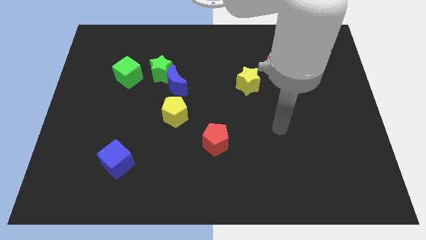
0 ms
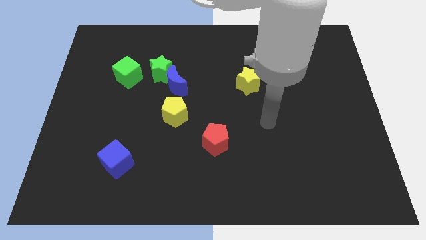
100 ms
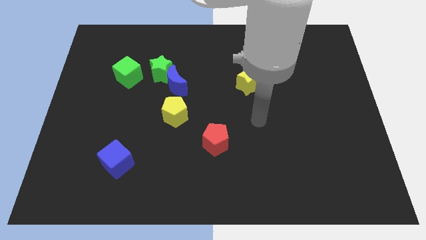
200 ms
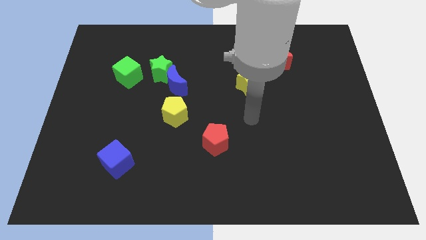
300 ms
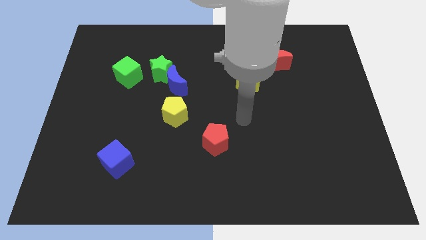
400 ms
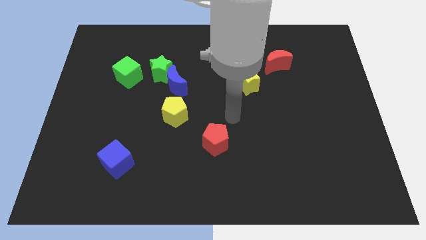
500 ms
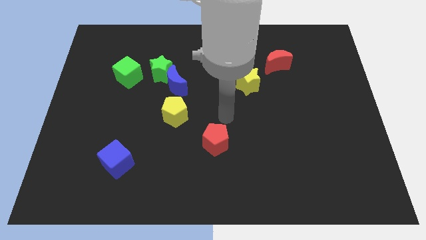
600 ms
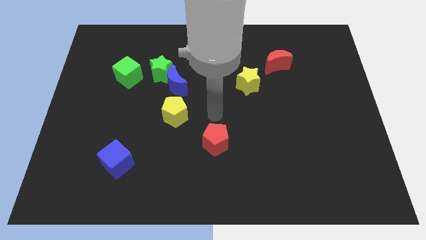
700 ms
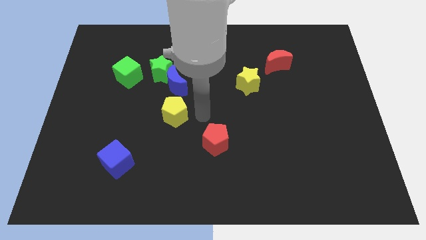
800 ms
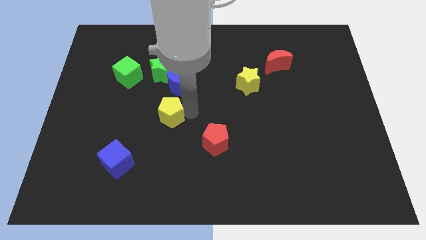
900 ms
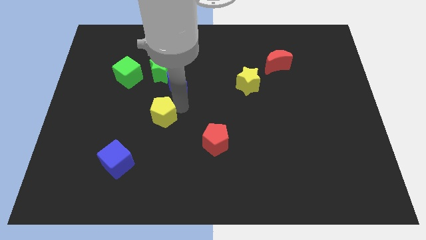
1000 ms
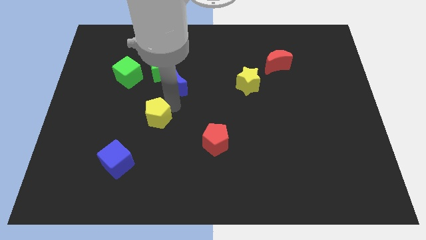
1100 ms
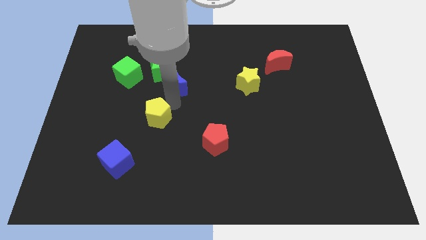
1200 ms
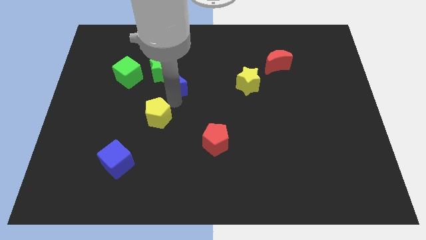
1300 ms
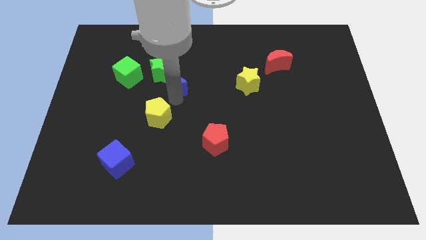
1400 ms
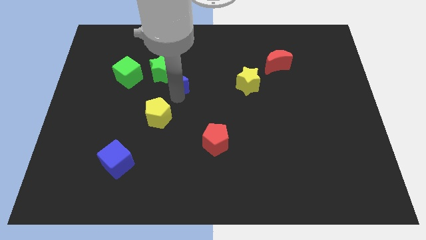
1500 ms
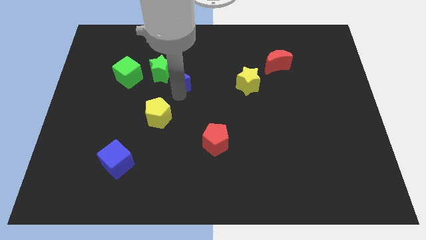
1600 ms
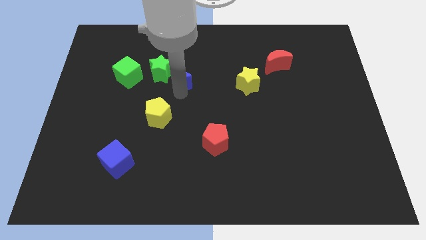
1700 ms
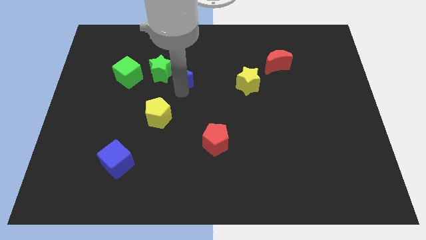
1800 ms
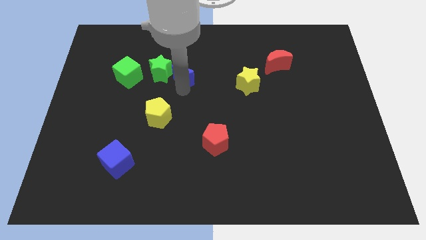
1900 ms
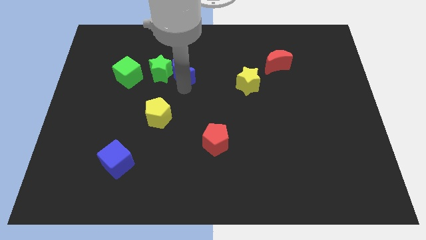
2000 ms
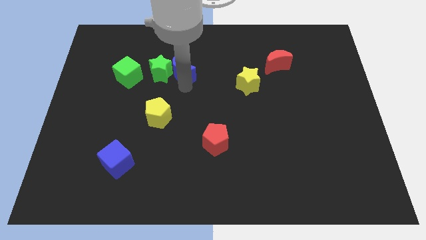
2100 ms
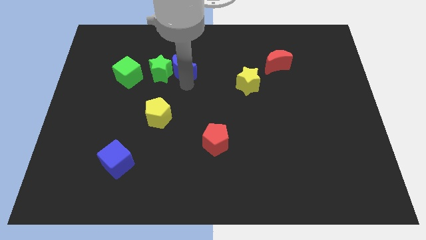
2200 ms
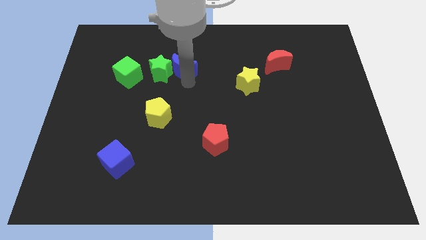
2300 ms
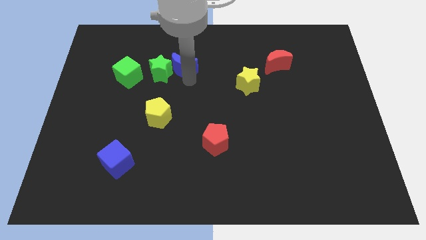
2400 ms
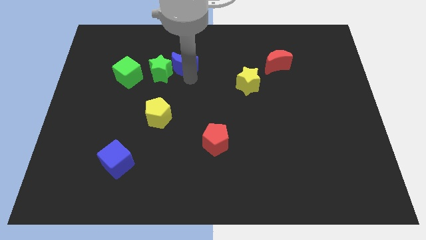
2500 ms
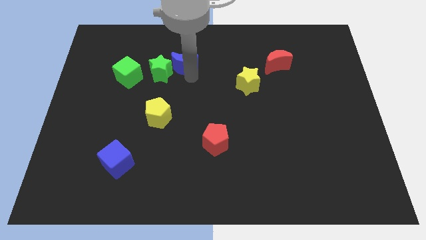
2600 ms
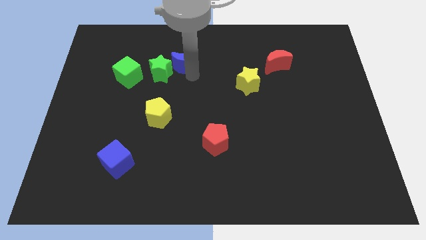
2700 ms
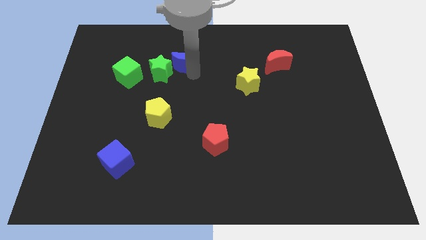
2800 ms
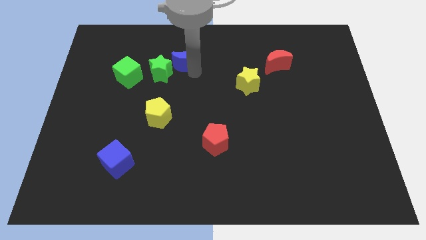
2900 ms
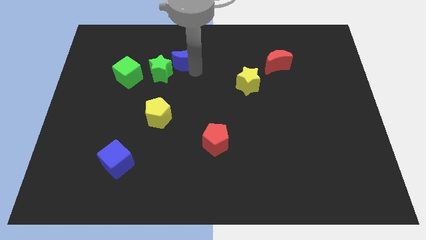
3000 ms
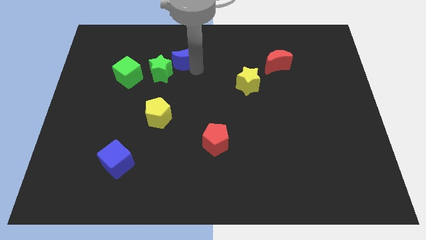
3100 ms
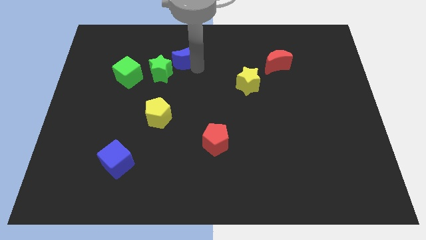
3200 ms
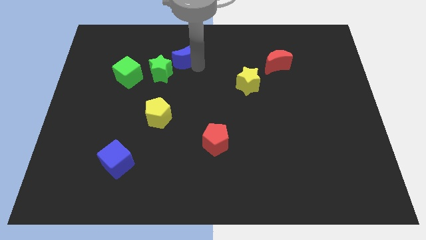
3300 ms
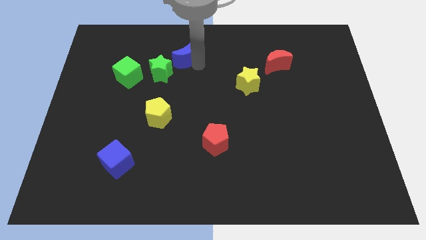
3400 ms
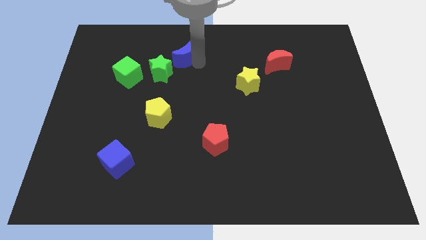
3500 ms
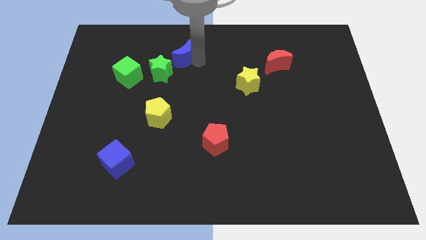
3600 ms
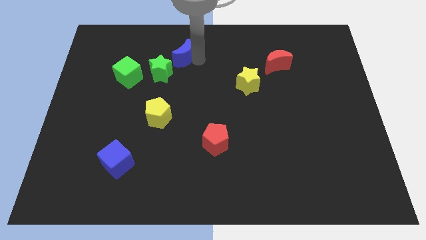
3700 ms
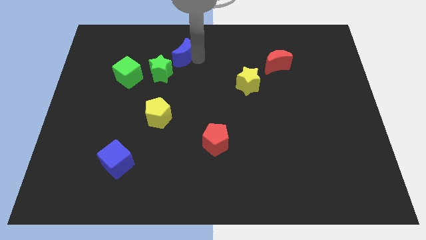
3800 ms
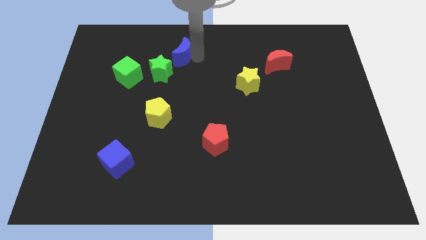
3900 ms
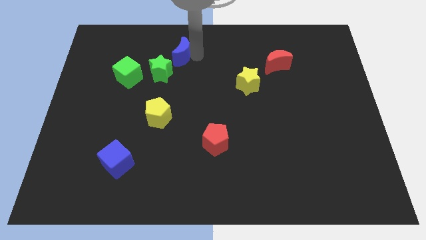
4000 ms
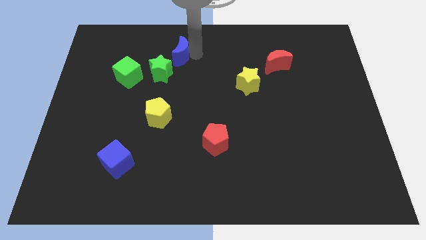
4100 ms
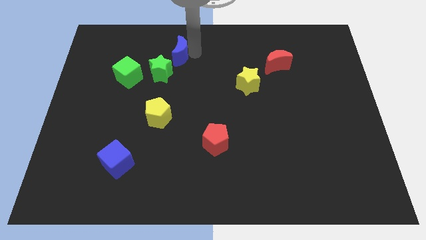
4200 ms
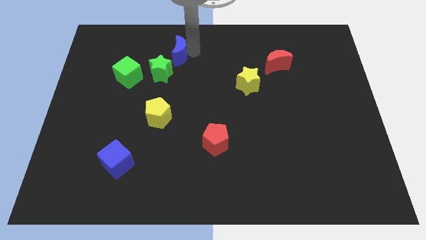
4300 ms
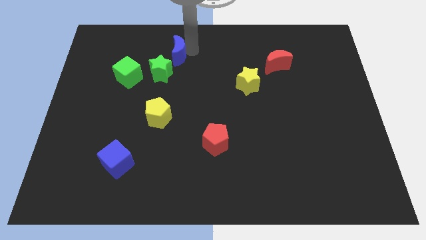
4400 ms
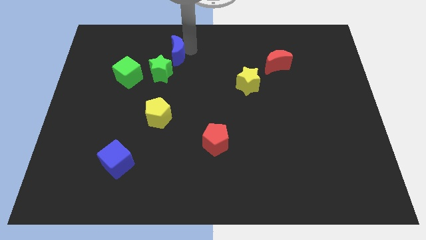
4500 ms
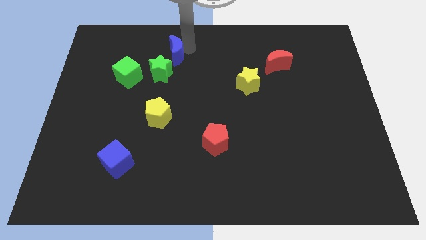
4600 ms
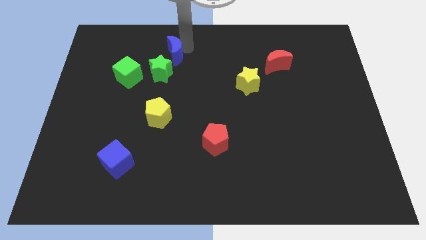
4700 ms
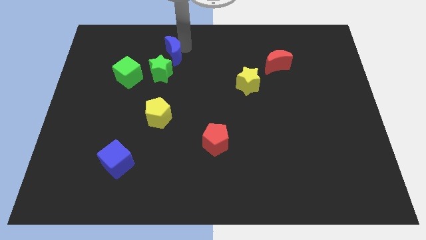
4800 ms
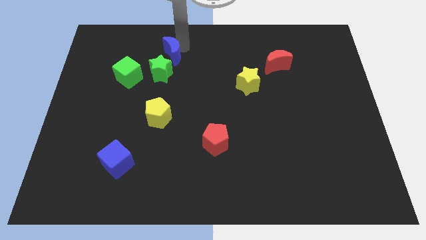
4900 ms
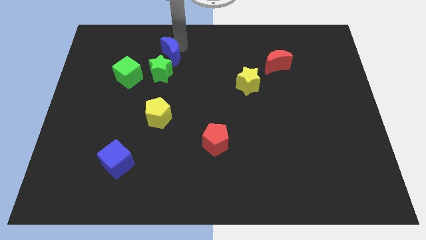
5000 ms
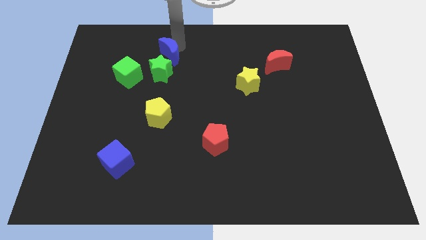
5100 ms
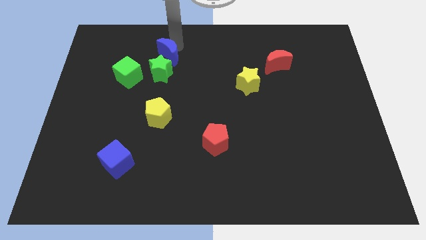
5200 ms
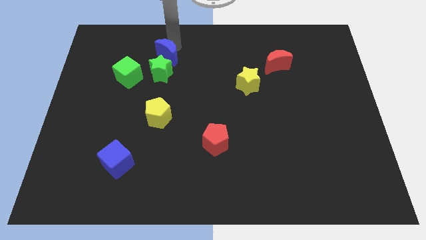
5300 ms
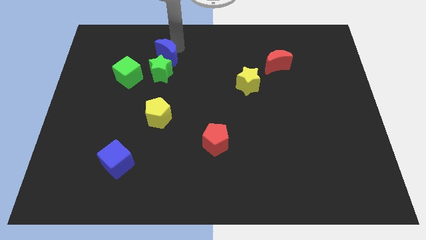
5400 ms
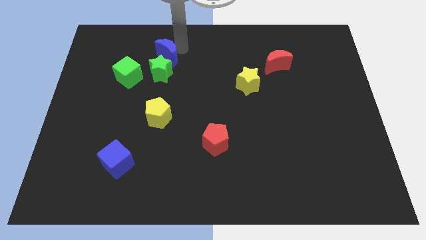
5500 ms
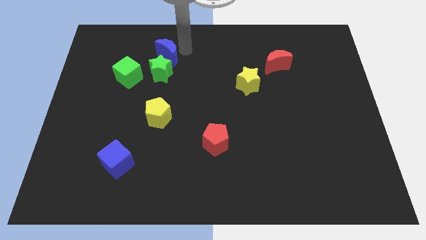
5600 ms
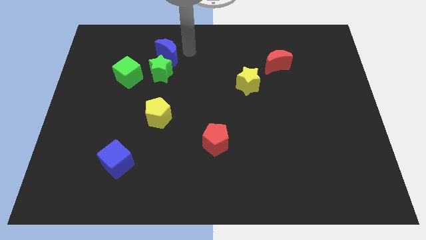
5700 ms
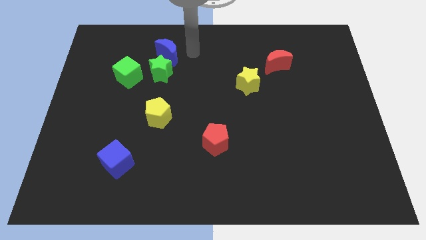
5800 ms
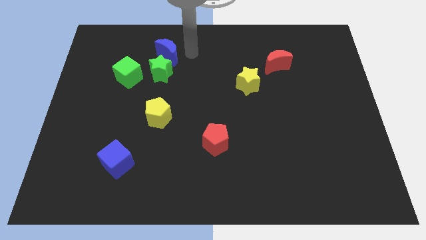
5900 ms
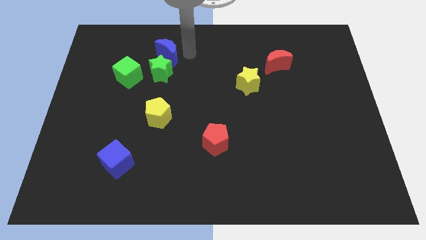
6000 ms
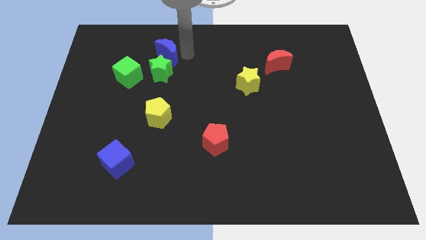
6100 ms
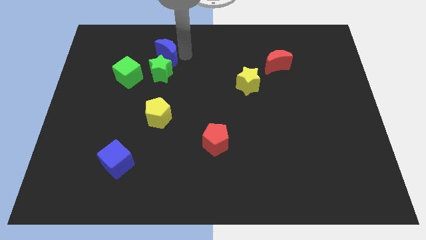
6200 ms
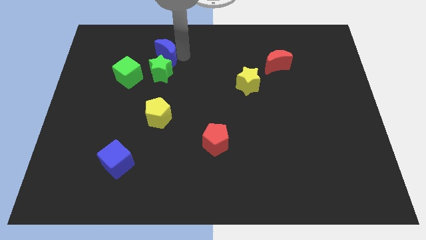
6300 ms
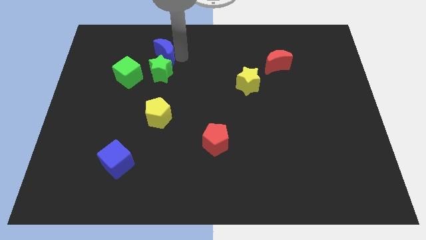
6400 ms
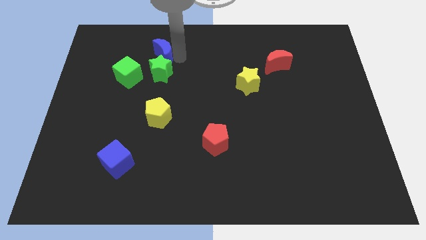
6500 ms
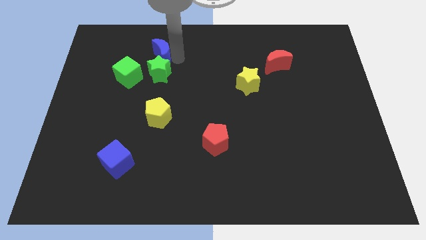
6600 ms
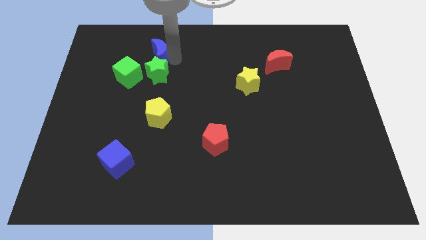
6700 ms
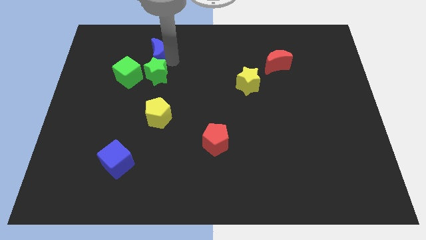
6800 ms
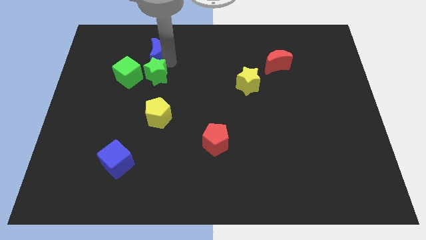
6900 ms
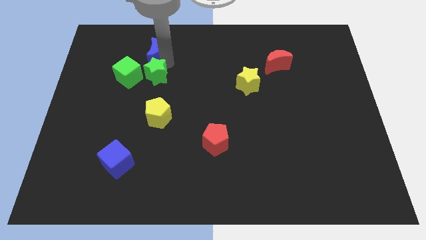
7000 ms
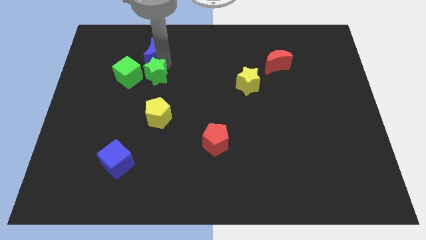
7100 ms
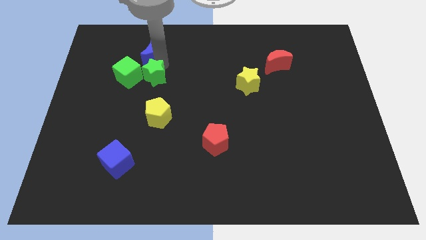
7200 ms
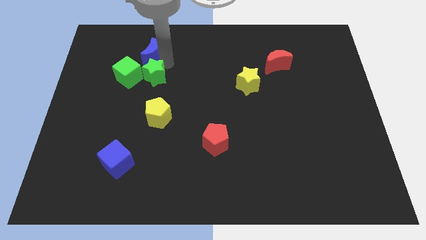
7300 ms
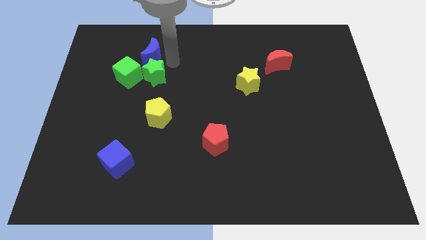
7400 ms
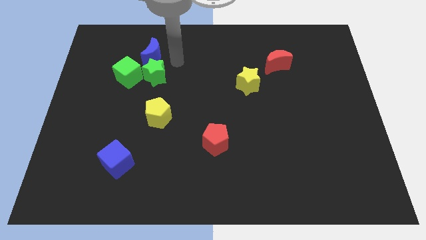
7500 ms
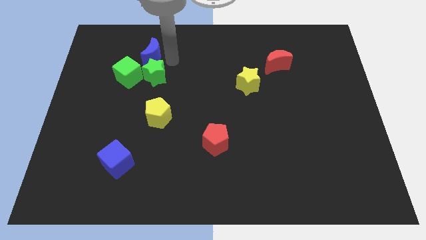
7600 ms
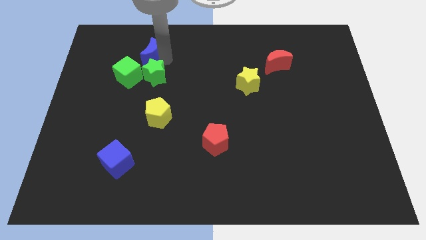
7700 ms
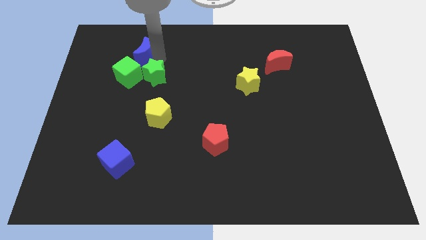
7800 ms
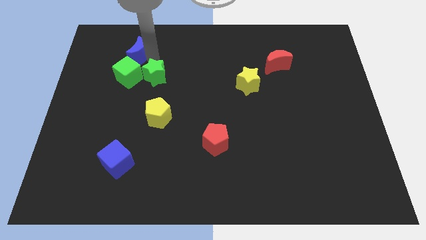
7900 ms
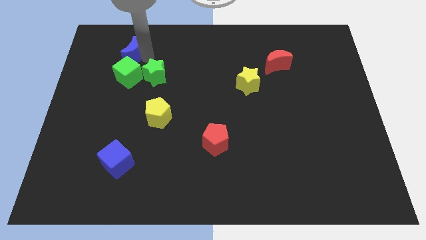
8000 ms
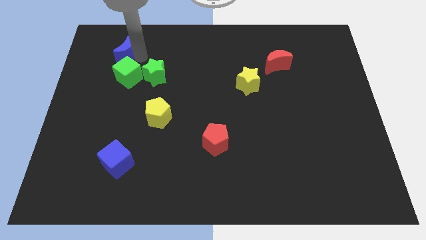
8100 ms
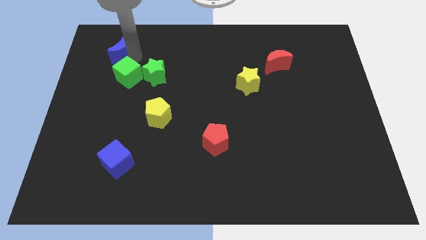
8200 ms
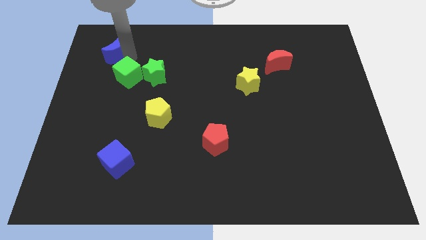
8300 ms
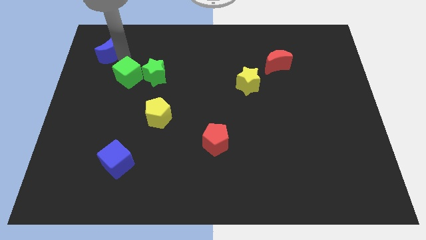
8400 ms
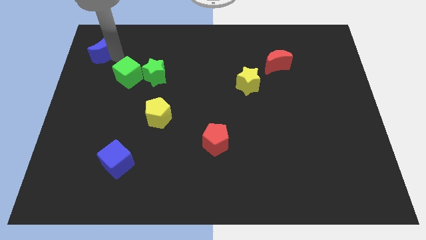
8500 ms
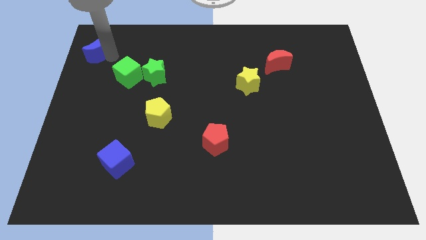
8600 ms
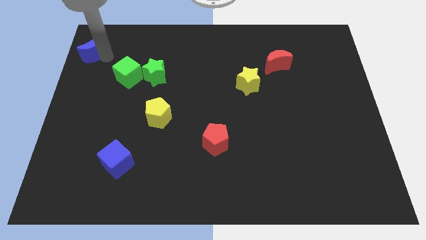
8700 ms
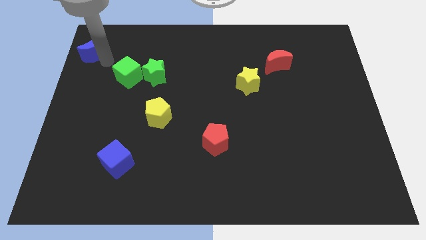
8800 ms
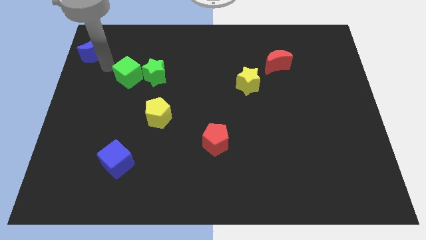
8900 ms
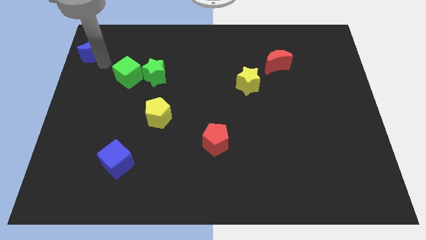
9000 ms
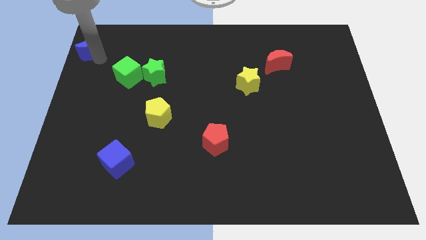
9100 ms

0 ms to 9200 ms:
slide the blue moon to the top left corner
